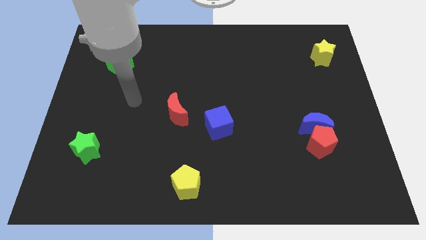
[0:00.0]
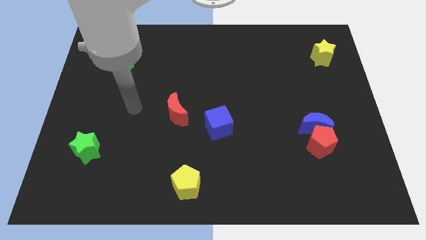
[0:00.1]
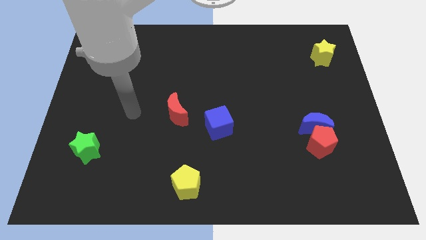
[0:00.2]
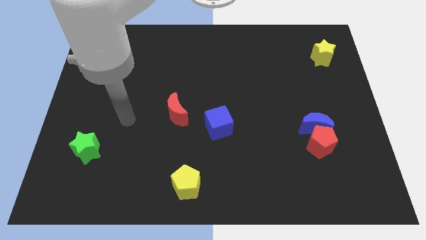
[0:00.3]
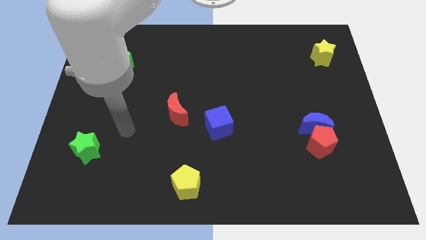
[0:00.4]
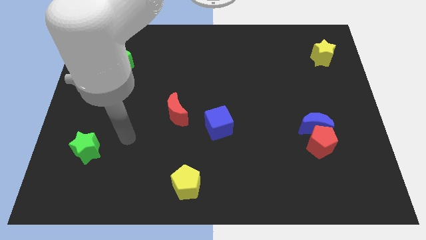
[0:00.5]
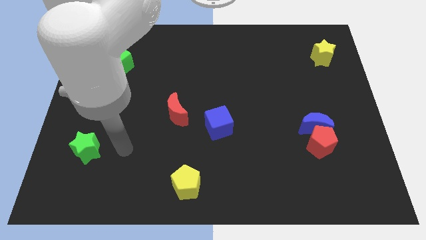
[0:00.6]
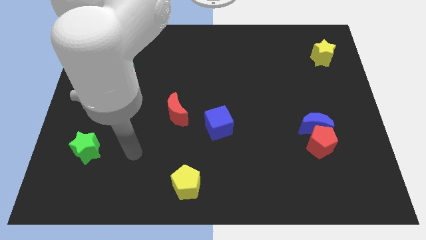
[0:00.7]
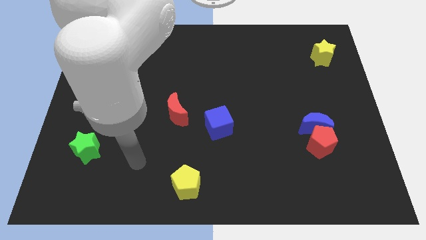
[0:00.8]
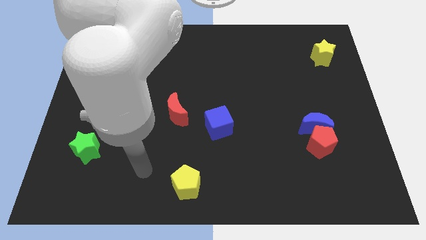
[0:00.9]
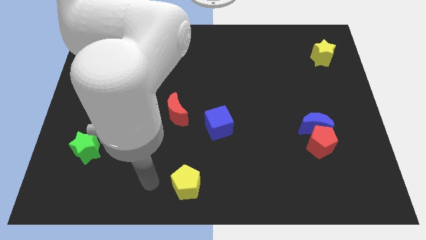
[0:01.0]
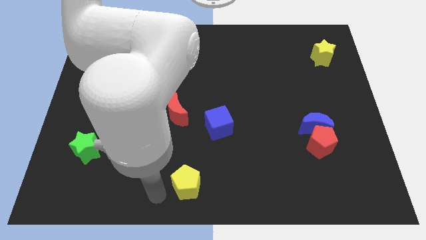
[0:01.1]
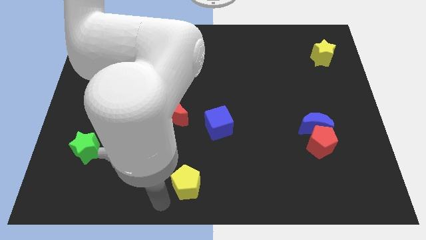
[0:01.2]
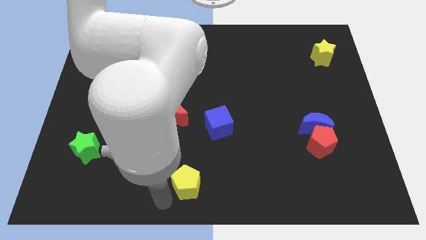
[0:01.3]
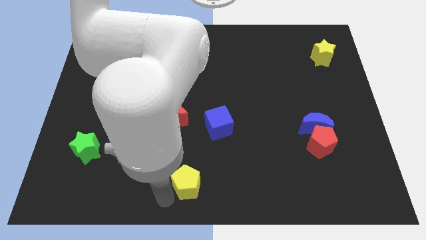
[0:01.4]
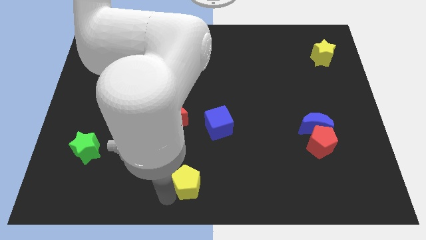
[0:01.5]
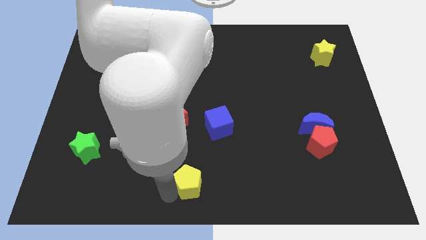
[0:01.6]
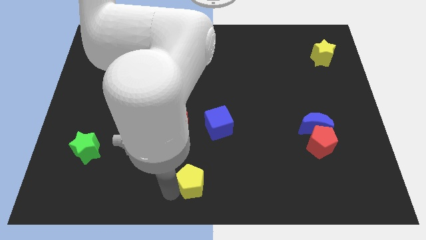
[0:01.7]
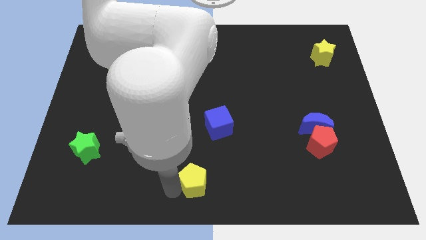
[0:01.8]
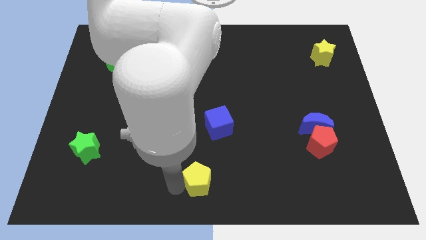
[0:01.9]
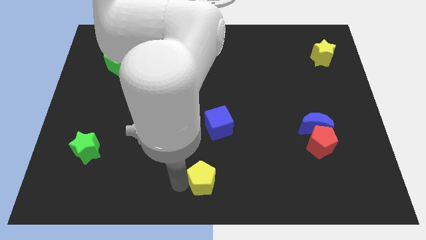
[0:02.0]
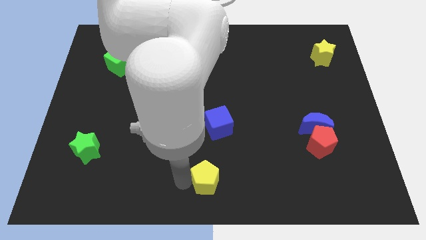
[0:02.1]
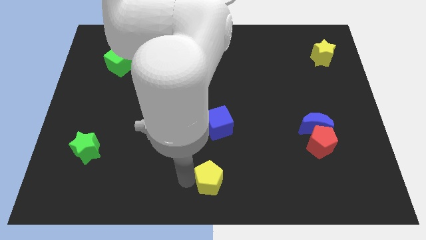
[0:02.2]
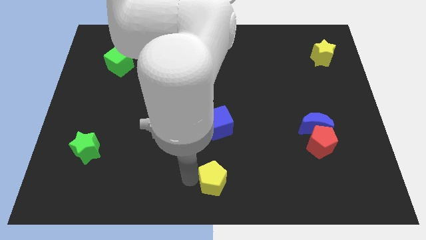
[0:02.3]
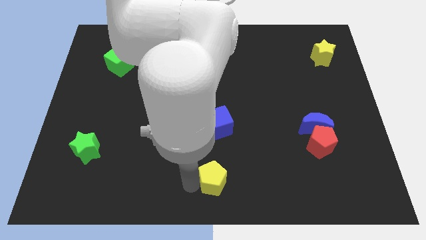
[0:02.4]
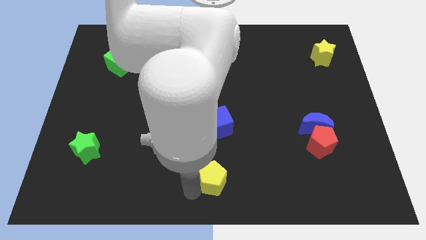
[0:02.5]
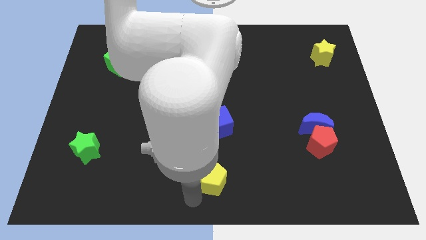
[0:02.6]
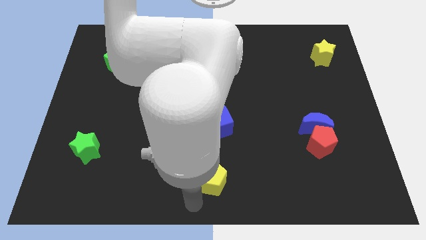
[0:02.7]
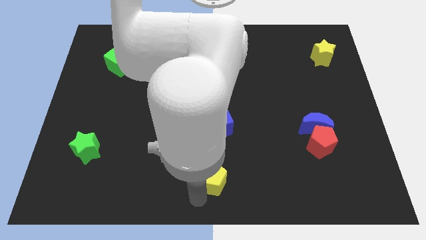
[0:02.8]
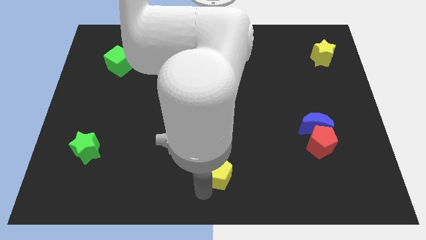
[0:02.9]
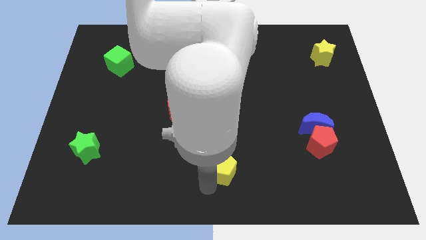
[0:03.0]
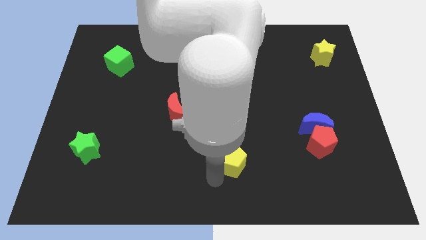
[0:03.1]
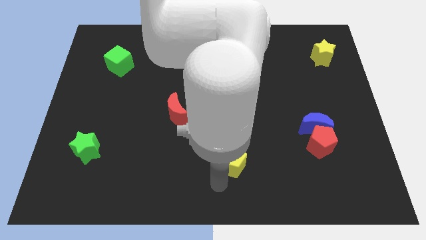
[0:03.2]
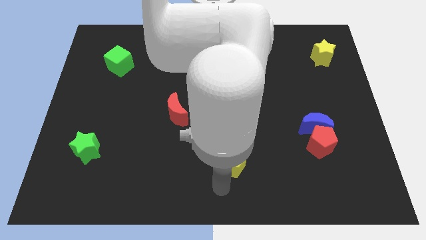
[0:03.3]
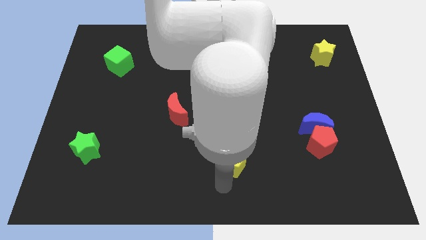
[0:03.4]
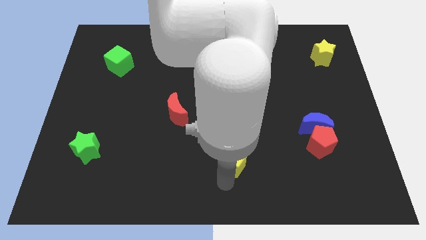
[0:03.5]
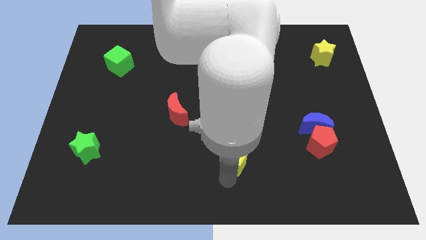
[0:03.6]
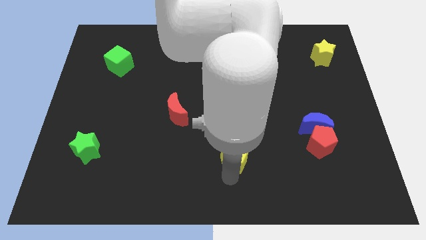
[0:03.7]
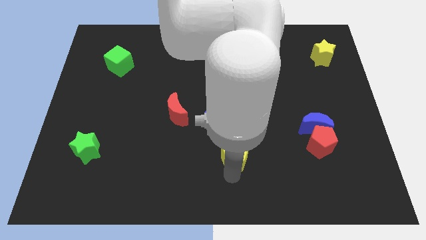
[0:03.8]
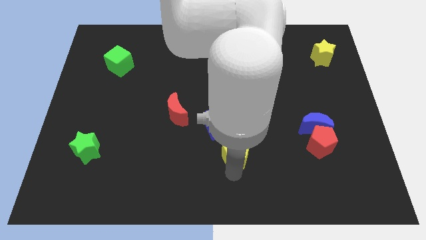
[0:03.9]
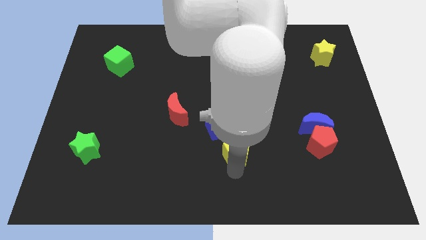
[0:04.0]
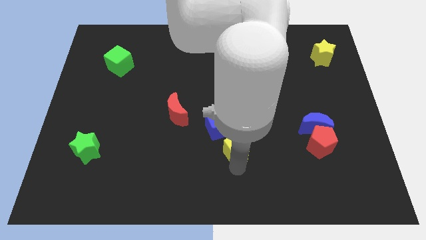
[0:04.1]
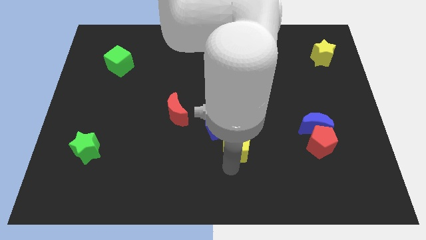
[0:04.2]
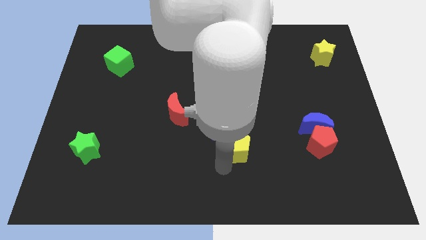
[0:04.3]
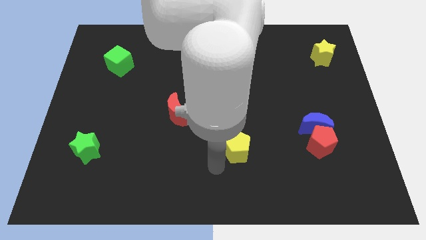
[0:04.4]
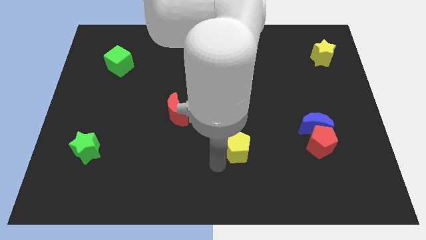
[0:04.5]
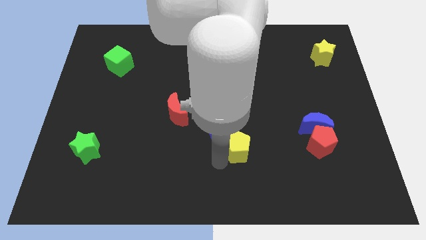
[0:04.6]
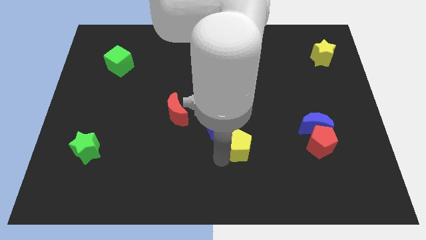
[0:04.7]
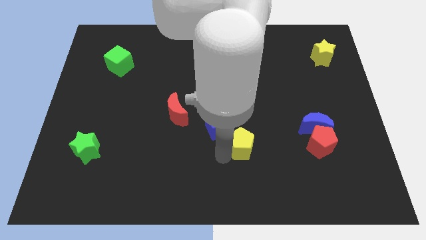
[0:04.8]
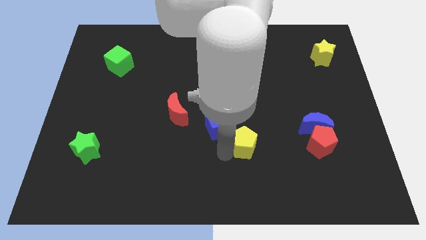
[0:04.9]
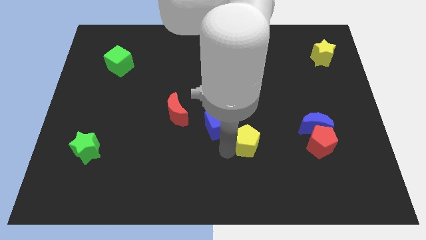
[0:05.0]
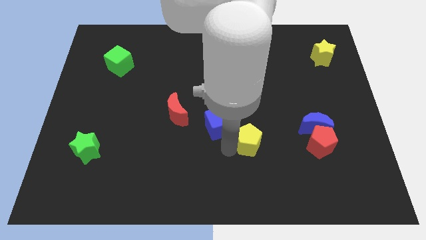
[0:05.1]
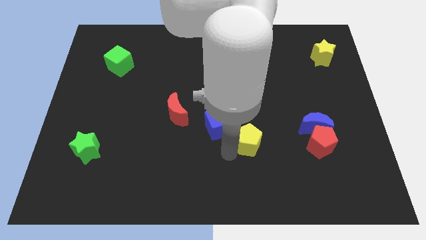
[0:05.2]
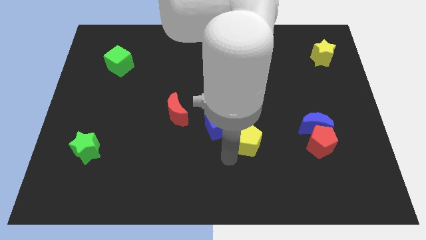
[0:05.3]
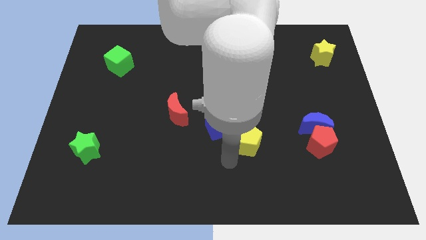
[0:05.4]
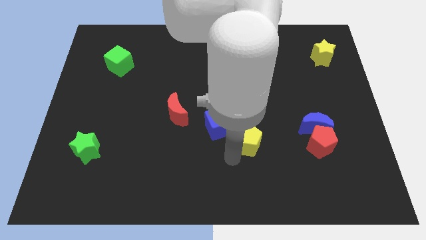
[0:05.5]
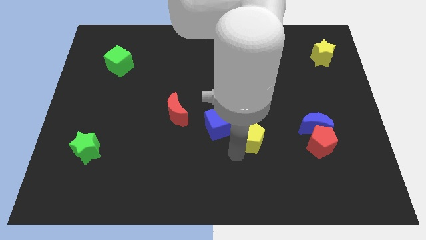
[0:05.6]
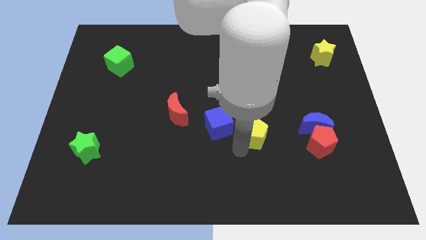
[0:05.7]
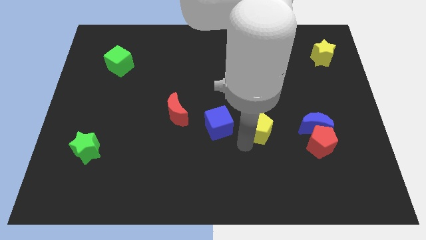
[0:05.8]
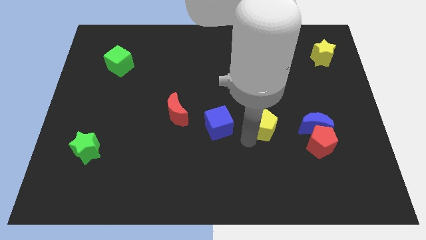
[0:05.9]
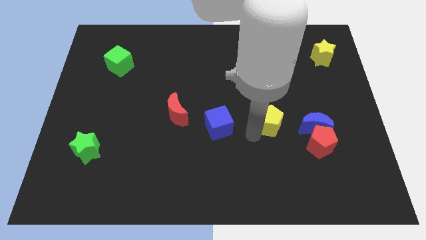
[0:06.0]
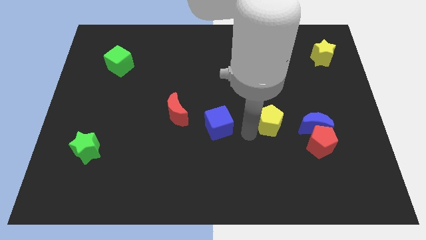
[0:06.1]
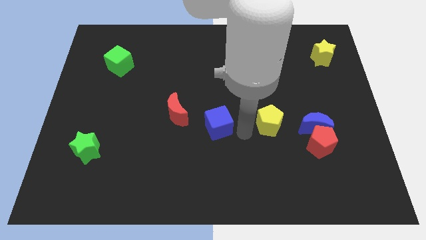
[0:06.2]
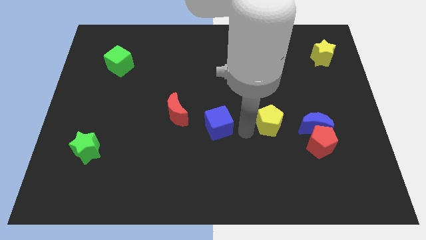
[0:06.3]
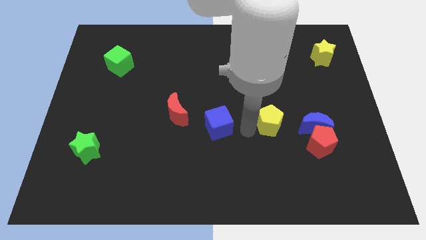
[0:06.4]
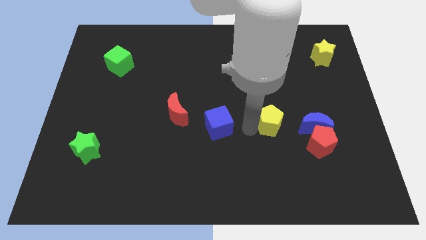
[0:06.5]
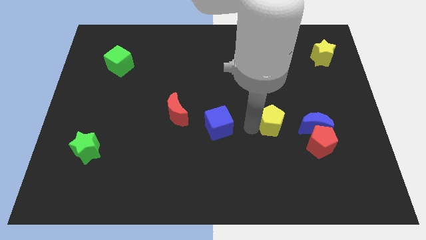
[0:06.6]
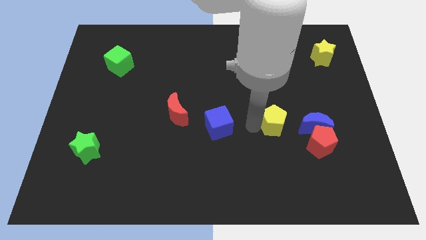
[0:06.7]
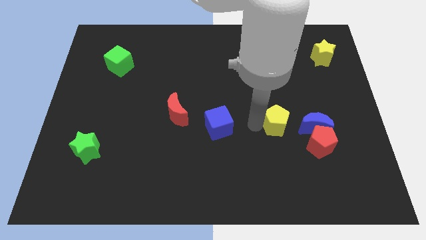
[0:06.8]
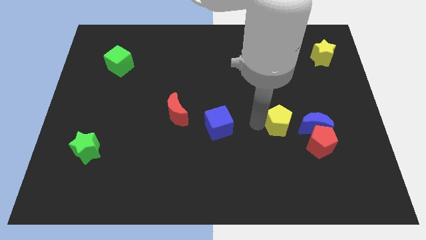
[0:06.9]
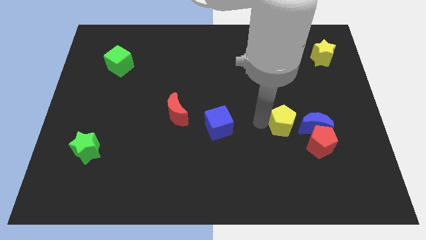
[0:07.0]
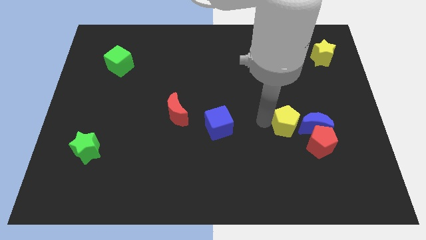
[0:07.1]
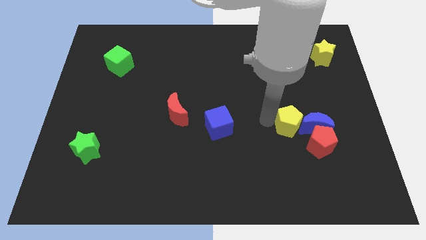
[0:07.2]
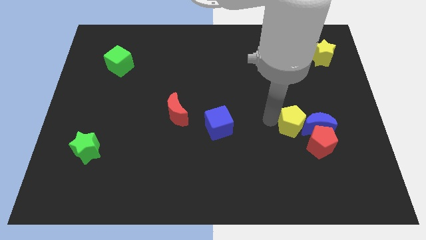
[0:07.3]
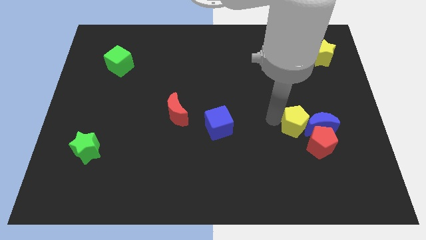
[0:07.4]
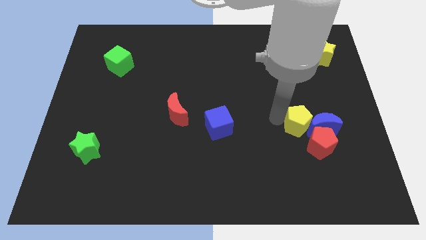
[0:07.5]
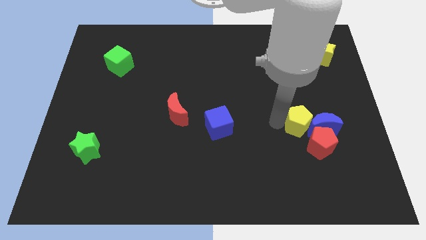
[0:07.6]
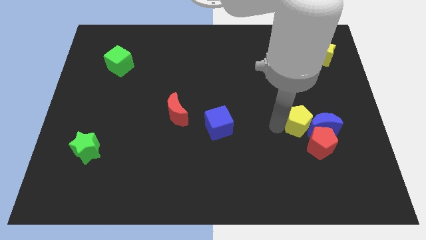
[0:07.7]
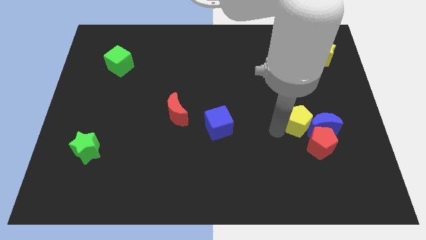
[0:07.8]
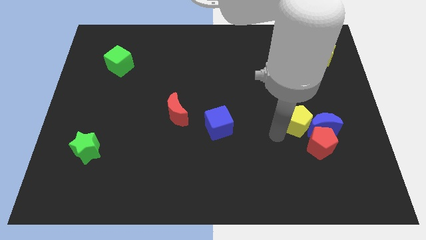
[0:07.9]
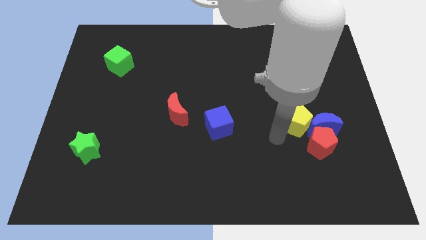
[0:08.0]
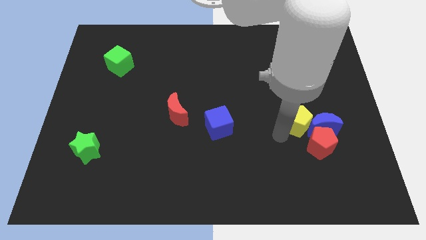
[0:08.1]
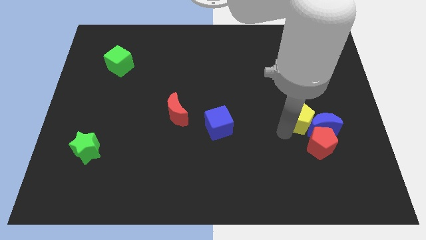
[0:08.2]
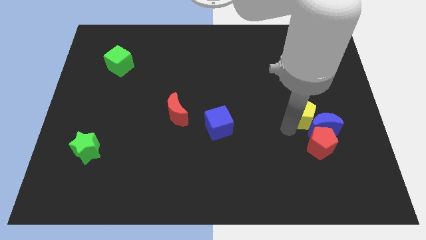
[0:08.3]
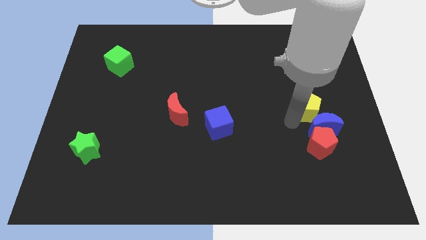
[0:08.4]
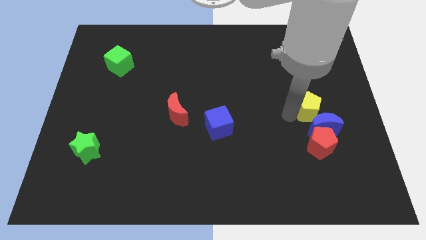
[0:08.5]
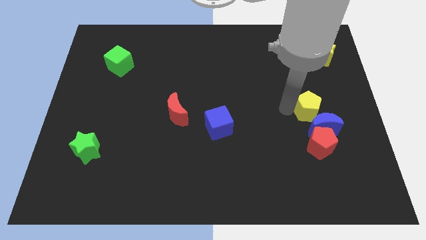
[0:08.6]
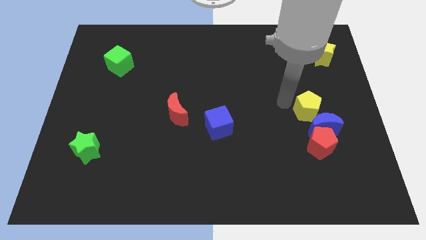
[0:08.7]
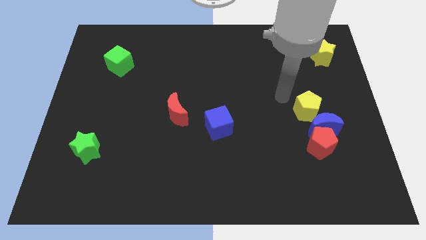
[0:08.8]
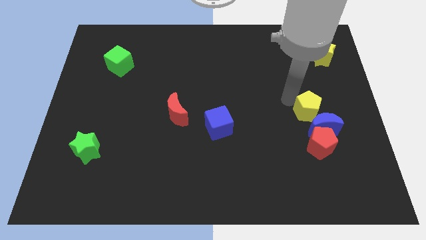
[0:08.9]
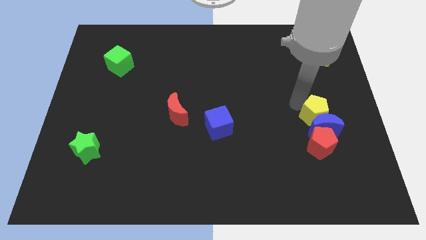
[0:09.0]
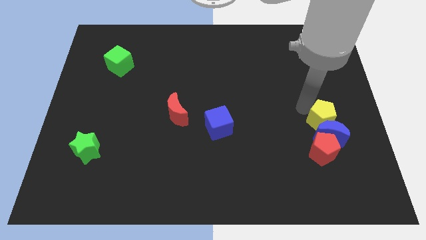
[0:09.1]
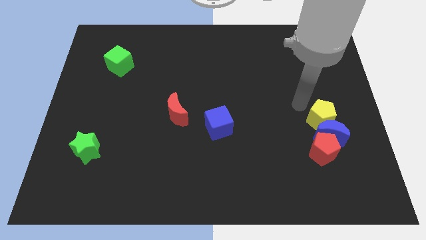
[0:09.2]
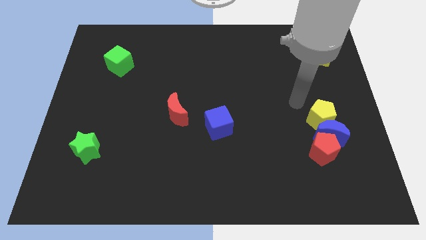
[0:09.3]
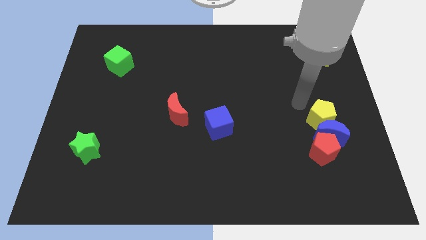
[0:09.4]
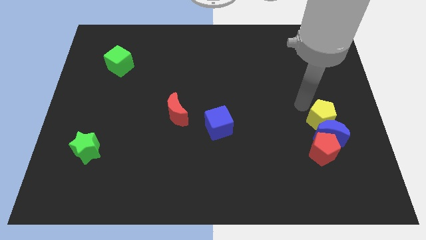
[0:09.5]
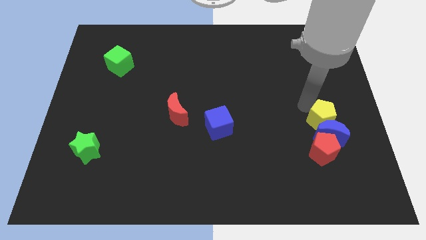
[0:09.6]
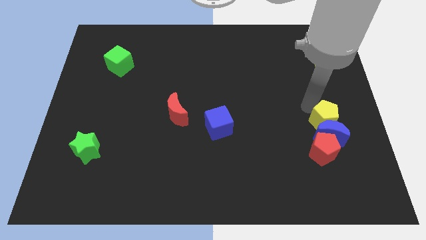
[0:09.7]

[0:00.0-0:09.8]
push the yellow pentagon to the top right of the red pentagon
